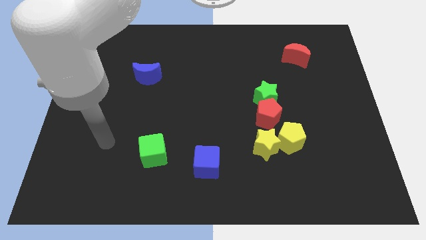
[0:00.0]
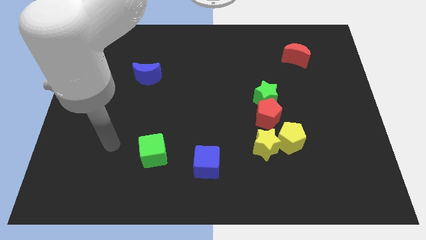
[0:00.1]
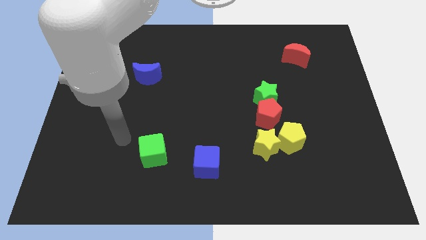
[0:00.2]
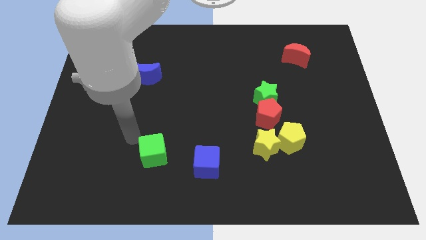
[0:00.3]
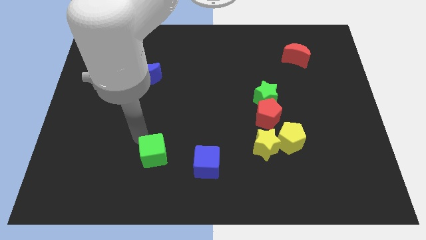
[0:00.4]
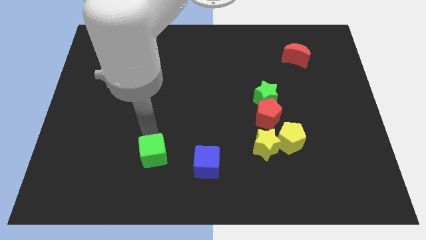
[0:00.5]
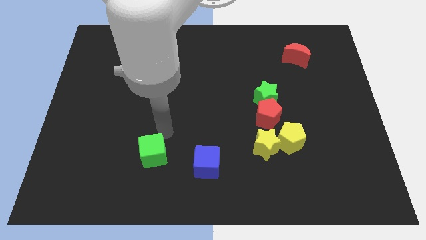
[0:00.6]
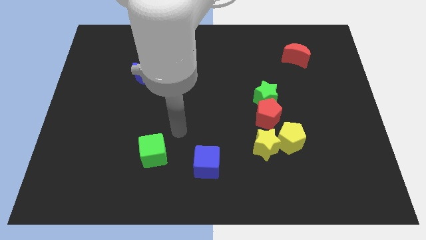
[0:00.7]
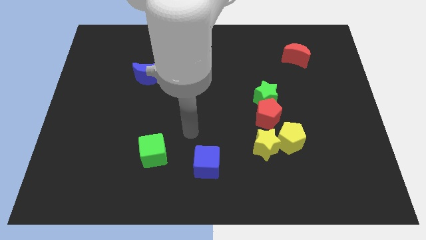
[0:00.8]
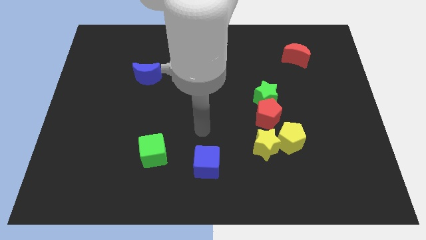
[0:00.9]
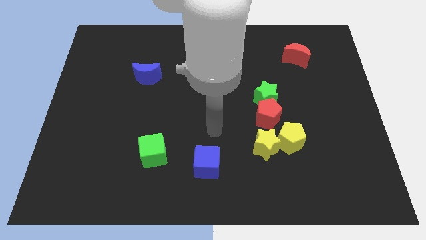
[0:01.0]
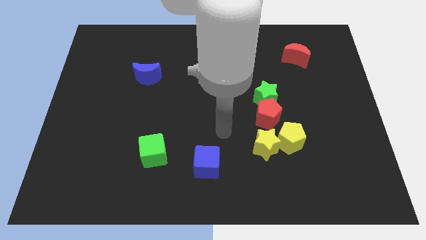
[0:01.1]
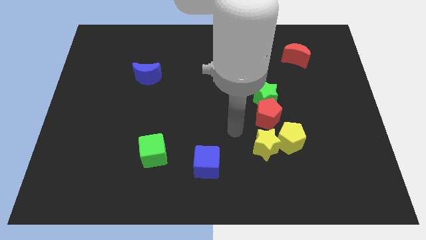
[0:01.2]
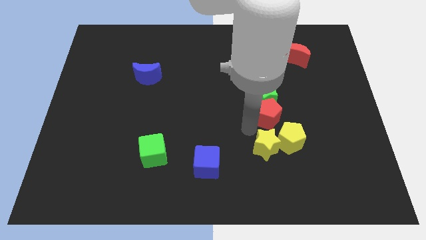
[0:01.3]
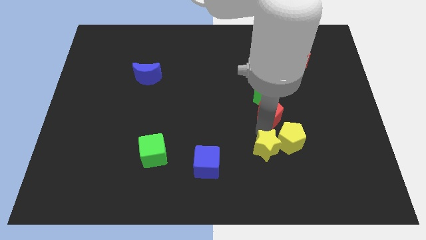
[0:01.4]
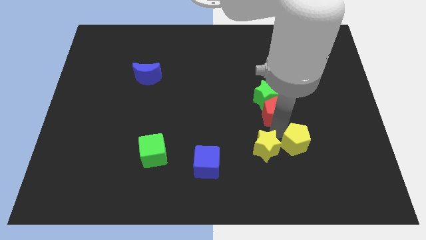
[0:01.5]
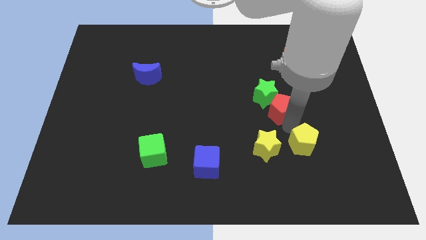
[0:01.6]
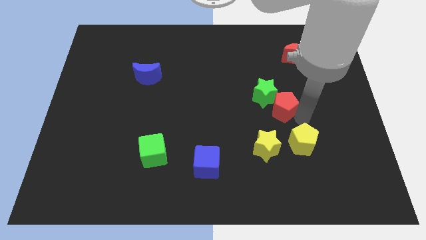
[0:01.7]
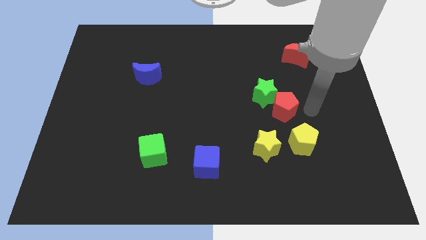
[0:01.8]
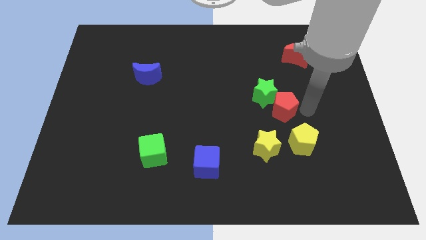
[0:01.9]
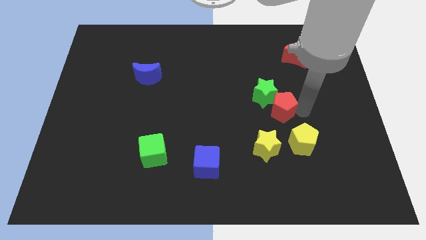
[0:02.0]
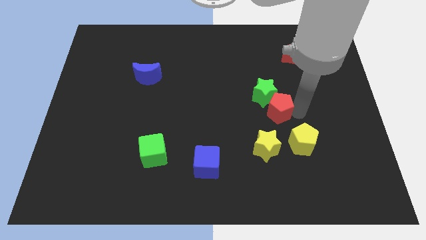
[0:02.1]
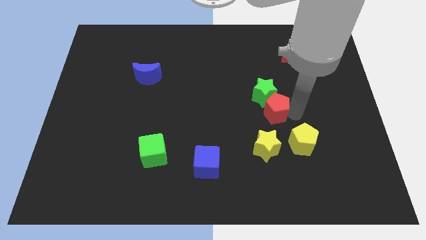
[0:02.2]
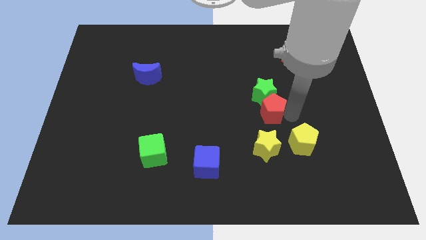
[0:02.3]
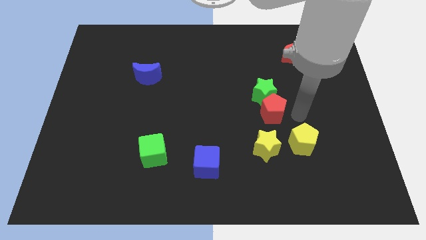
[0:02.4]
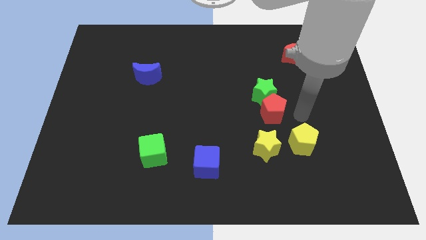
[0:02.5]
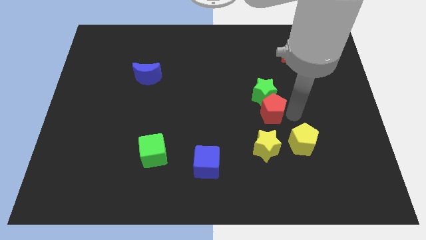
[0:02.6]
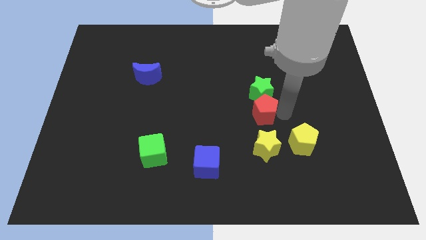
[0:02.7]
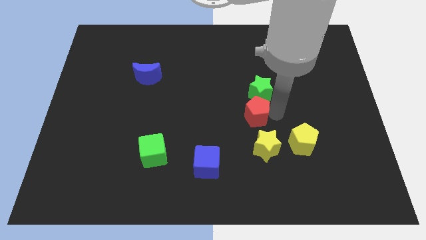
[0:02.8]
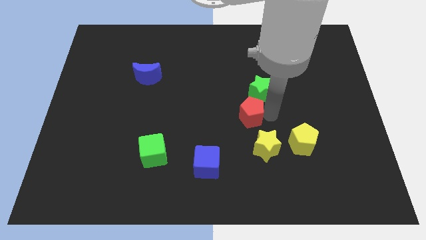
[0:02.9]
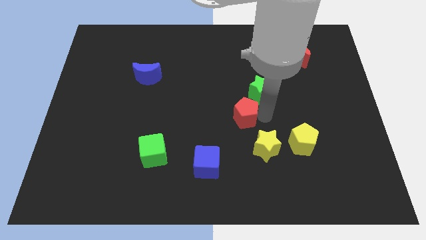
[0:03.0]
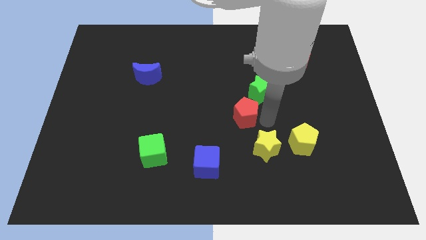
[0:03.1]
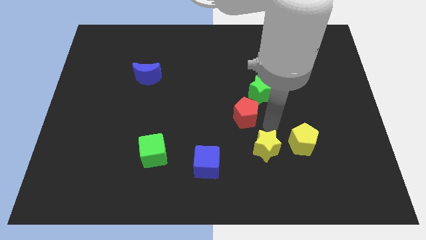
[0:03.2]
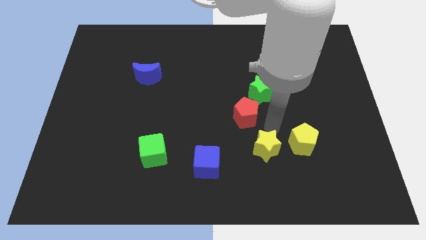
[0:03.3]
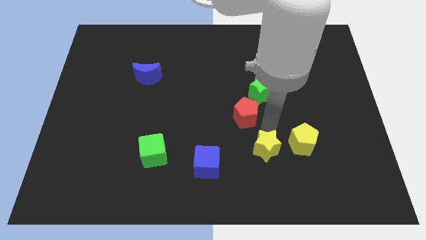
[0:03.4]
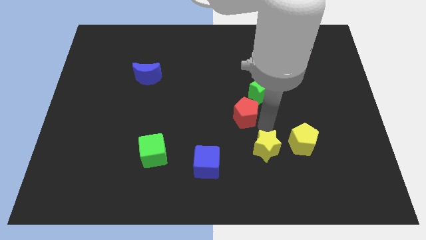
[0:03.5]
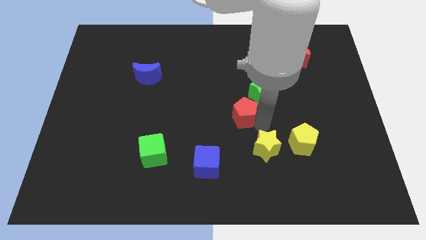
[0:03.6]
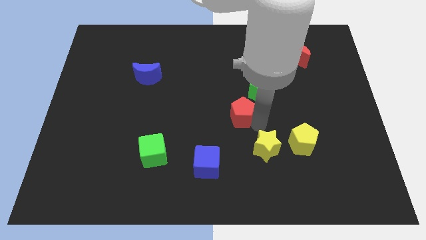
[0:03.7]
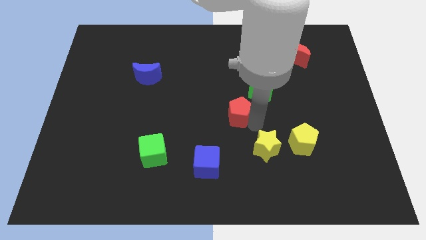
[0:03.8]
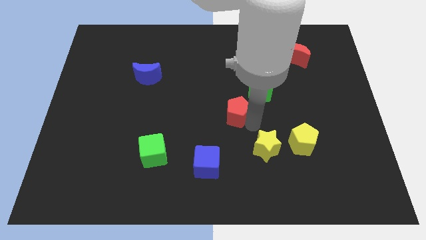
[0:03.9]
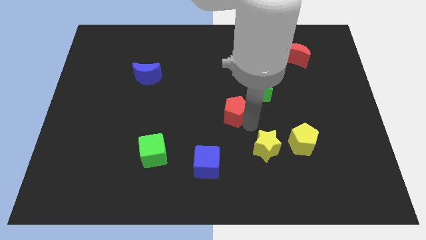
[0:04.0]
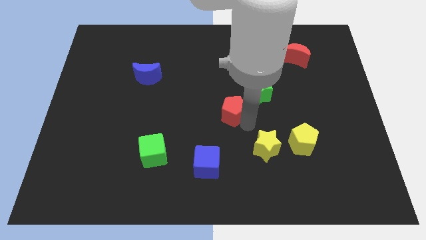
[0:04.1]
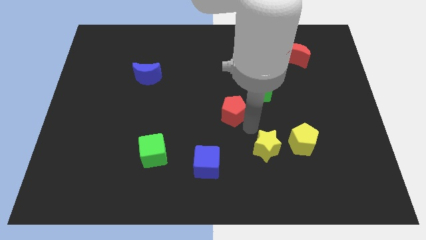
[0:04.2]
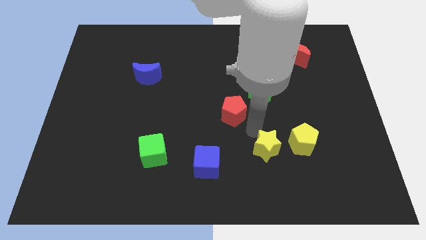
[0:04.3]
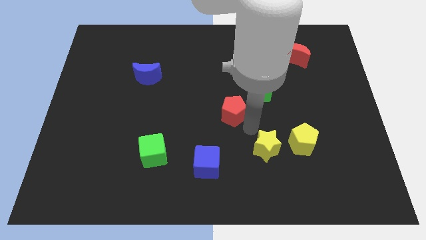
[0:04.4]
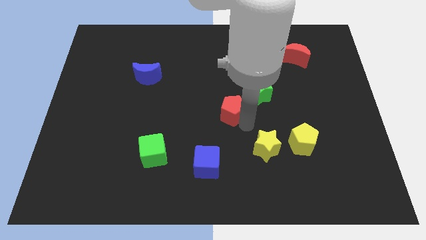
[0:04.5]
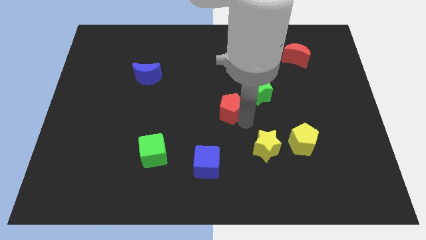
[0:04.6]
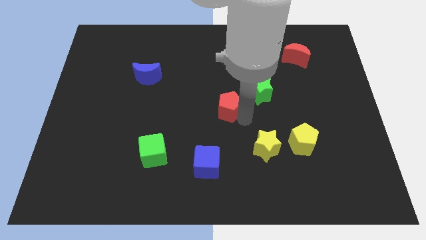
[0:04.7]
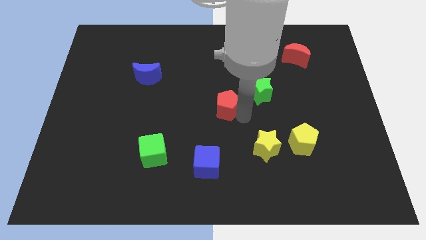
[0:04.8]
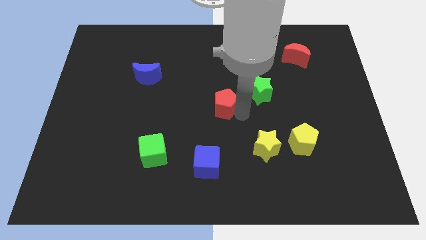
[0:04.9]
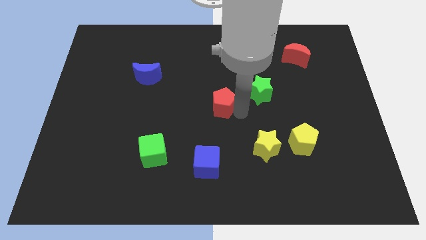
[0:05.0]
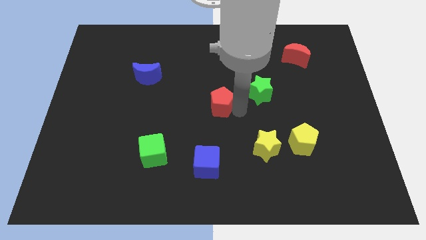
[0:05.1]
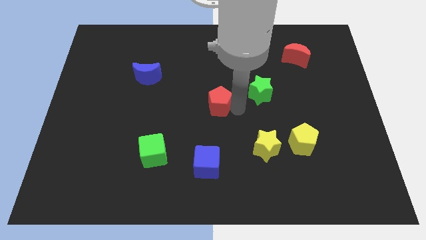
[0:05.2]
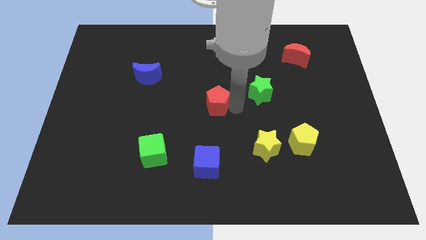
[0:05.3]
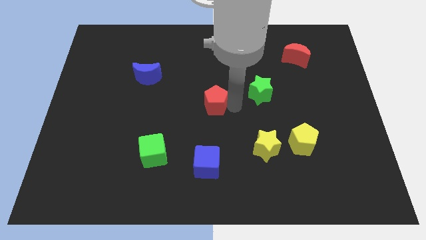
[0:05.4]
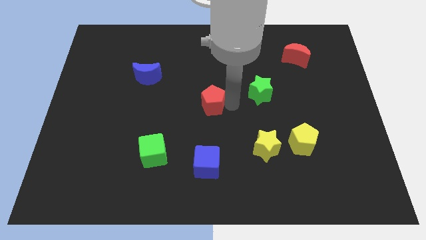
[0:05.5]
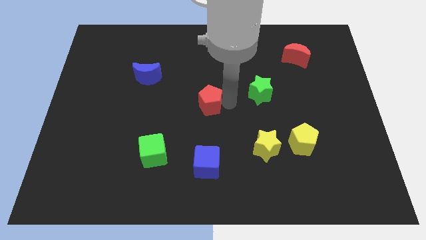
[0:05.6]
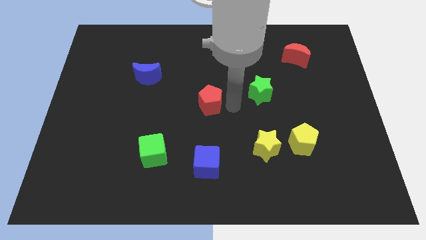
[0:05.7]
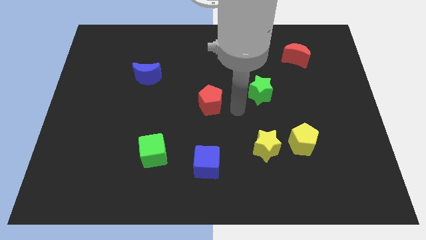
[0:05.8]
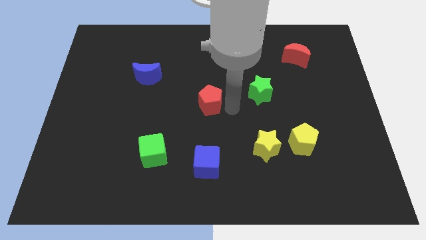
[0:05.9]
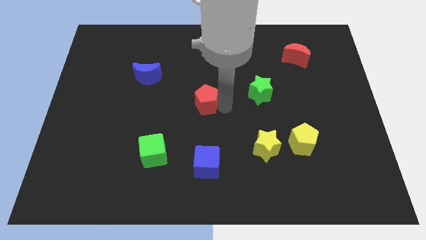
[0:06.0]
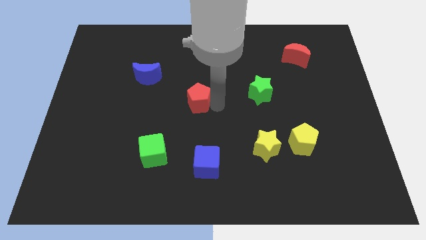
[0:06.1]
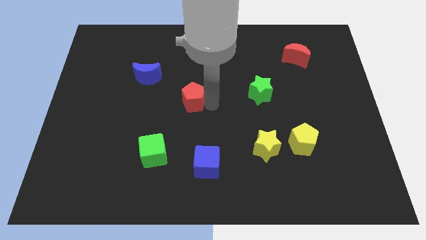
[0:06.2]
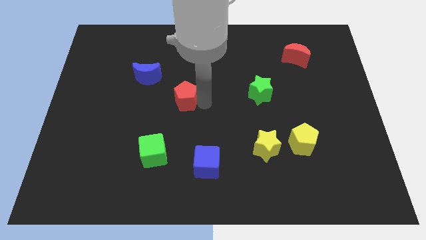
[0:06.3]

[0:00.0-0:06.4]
push the red pentagon to the bottom right side of the blue moon
